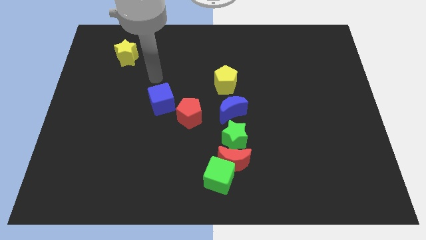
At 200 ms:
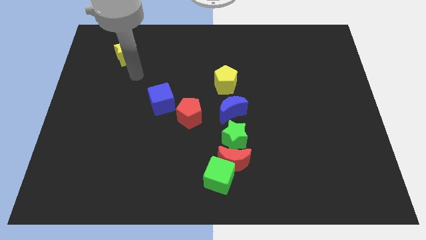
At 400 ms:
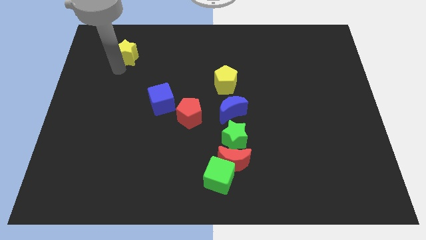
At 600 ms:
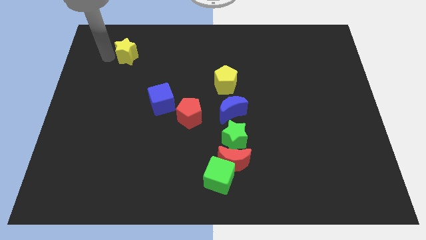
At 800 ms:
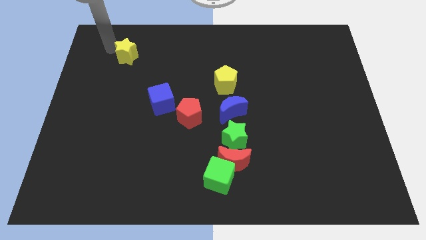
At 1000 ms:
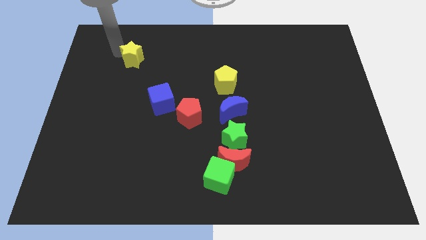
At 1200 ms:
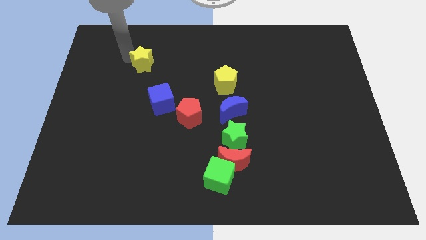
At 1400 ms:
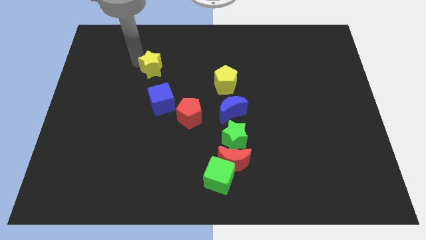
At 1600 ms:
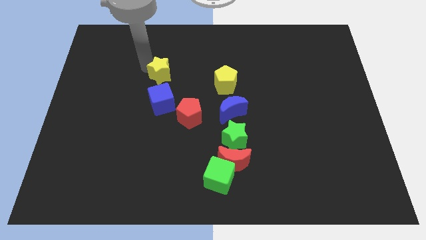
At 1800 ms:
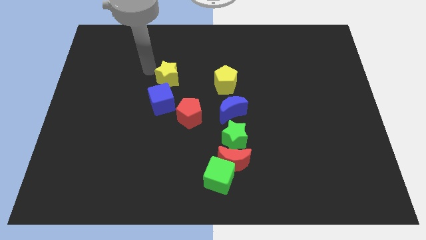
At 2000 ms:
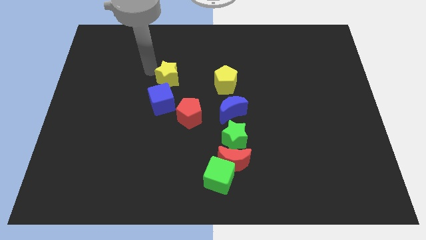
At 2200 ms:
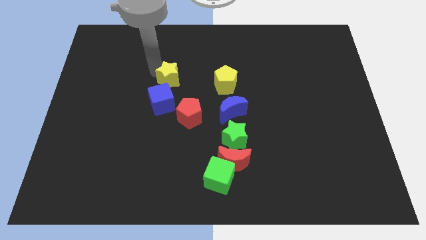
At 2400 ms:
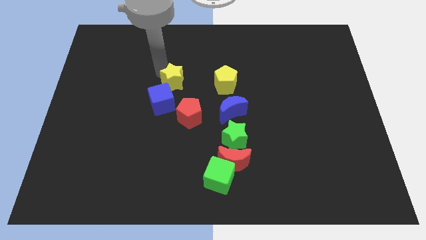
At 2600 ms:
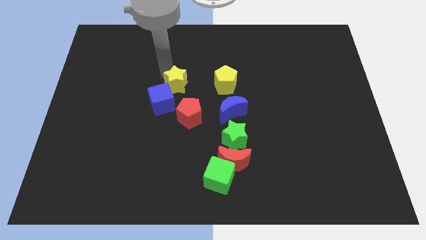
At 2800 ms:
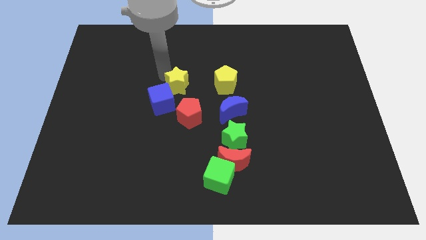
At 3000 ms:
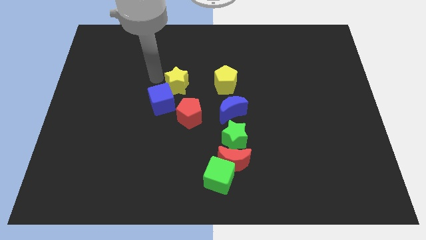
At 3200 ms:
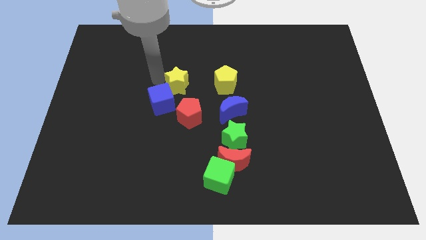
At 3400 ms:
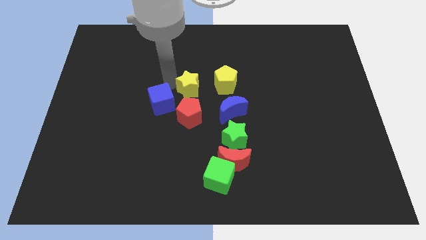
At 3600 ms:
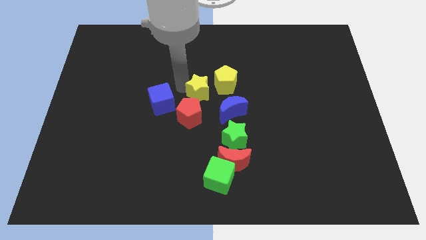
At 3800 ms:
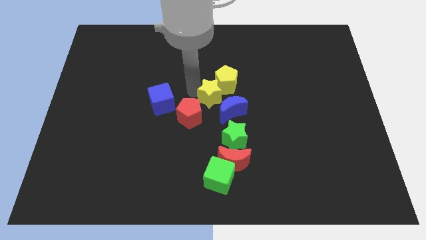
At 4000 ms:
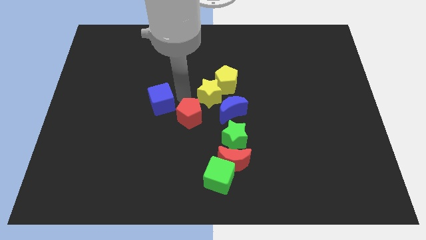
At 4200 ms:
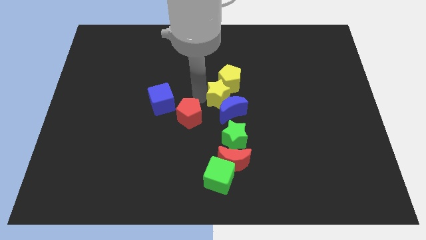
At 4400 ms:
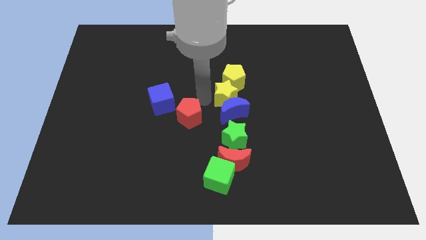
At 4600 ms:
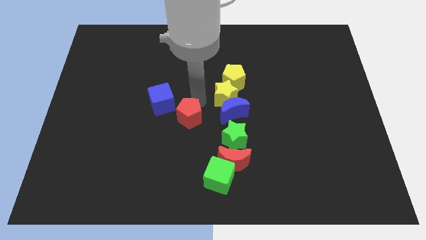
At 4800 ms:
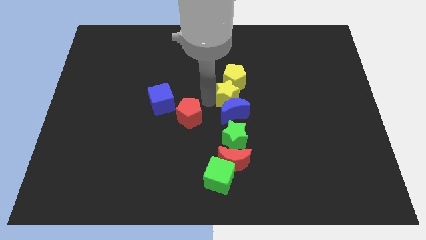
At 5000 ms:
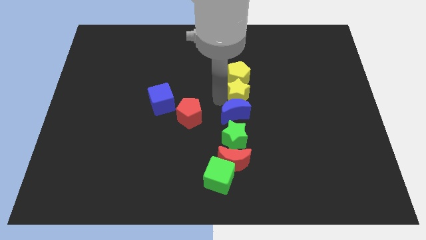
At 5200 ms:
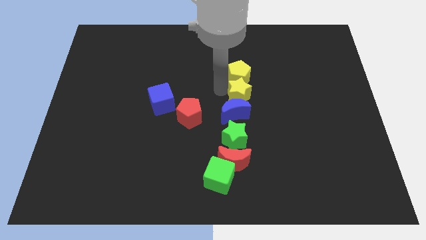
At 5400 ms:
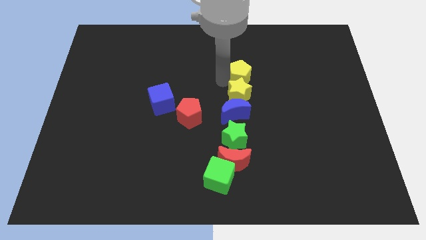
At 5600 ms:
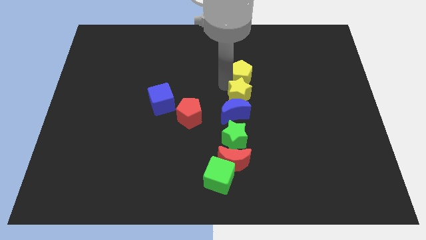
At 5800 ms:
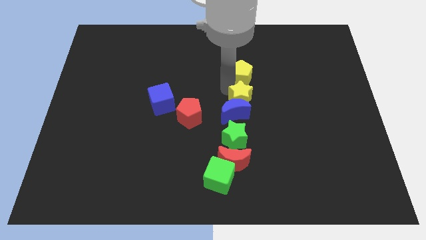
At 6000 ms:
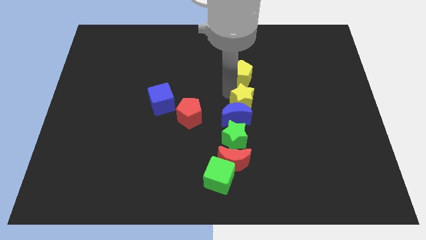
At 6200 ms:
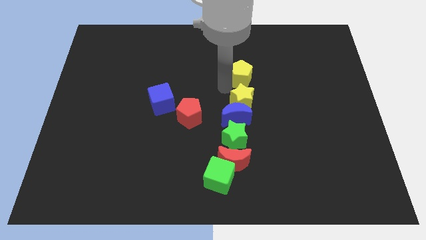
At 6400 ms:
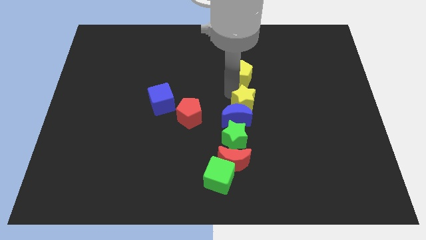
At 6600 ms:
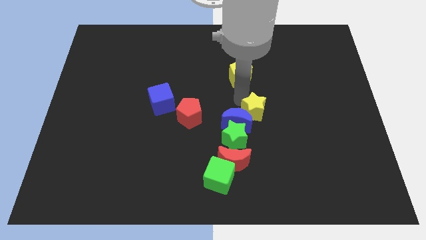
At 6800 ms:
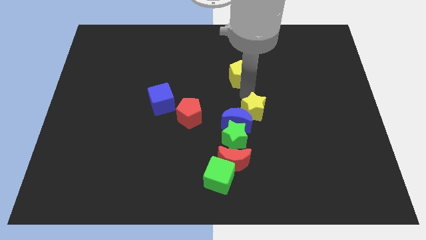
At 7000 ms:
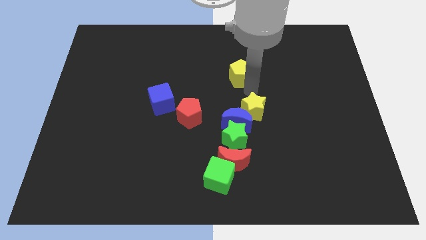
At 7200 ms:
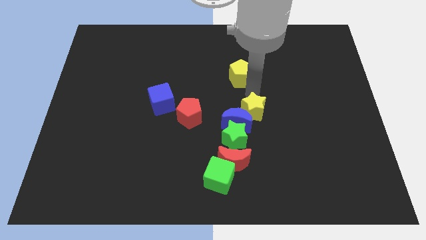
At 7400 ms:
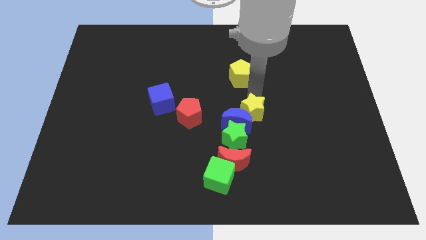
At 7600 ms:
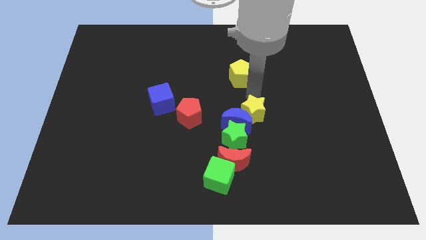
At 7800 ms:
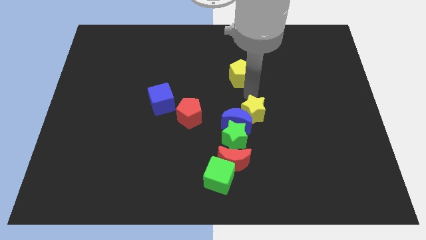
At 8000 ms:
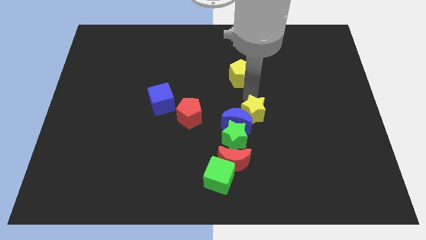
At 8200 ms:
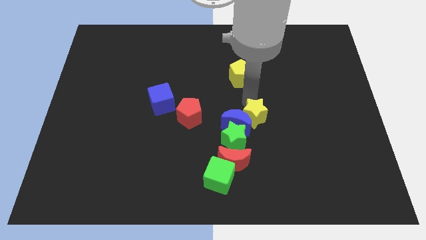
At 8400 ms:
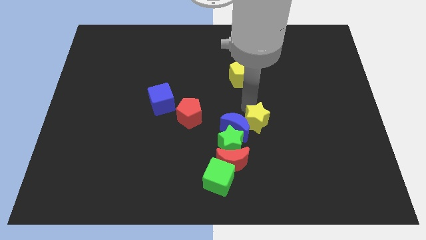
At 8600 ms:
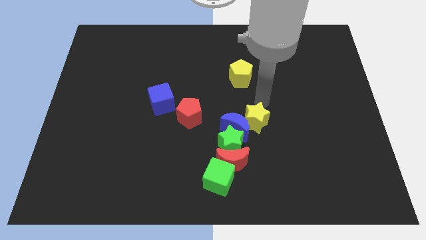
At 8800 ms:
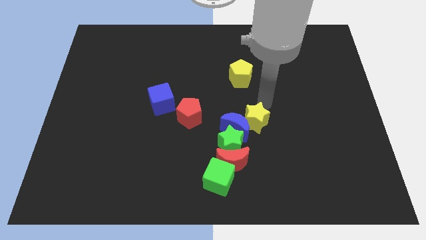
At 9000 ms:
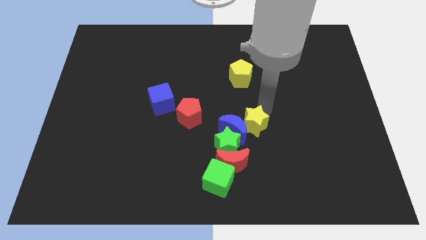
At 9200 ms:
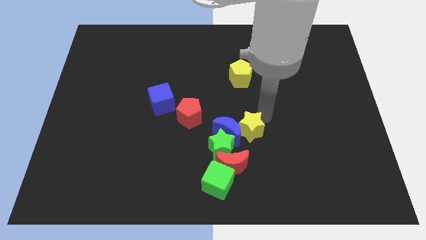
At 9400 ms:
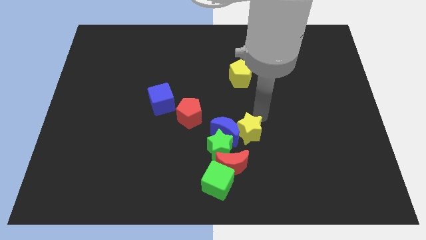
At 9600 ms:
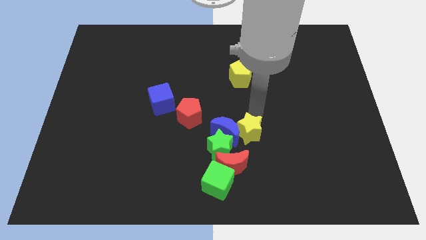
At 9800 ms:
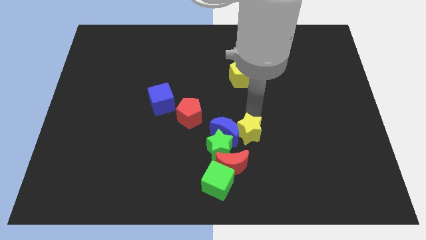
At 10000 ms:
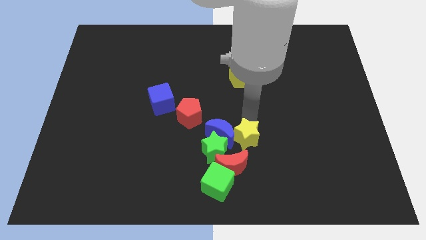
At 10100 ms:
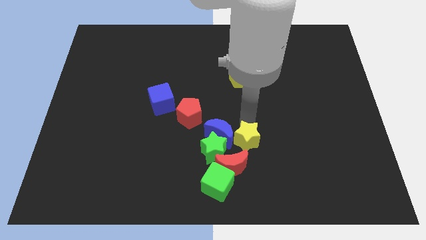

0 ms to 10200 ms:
push the yellow star to the top right side of the green cube

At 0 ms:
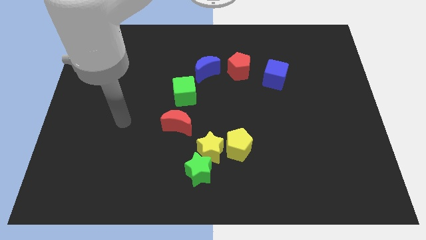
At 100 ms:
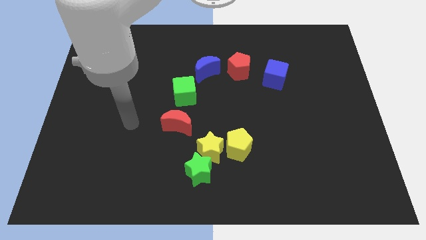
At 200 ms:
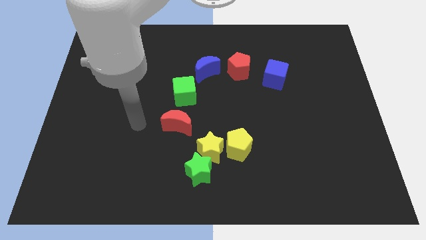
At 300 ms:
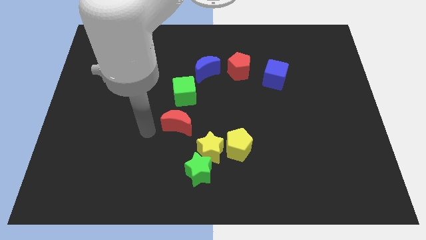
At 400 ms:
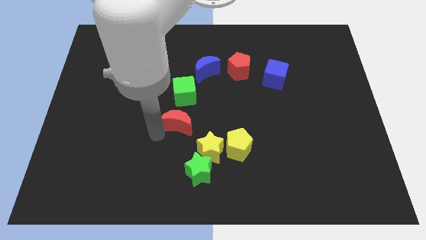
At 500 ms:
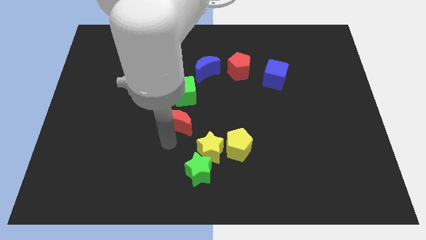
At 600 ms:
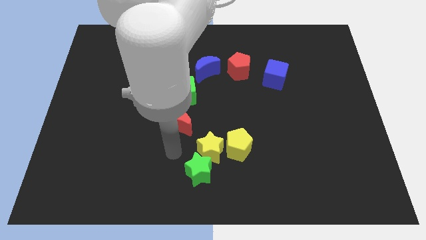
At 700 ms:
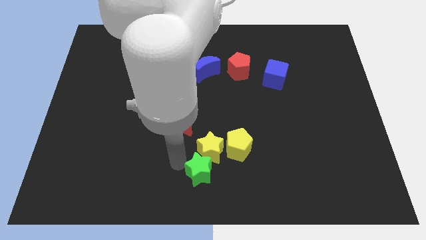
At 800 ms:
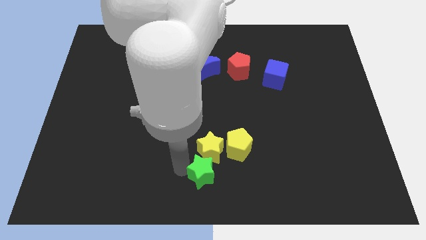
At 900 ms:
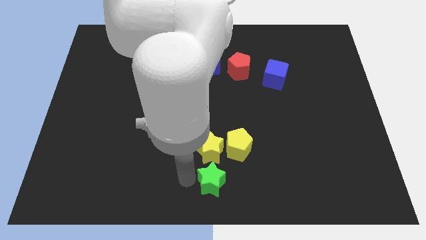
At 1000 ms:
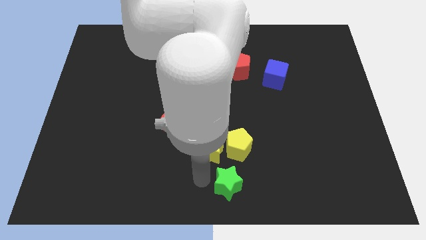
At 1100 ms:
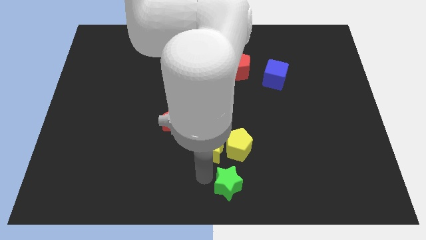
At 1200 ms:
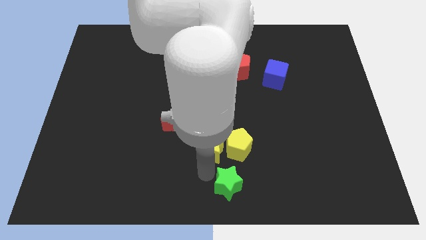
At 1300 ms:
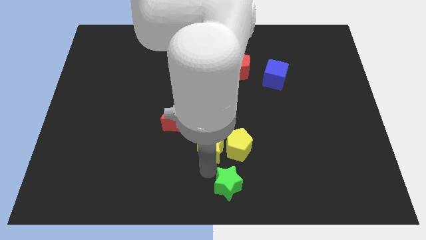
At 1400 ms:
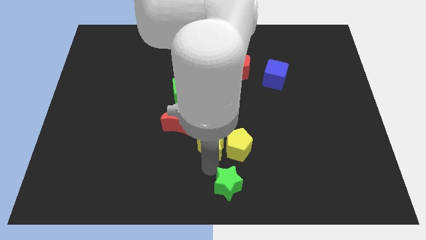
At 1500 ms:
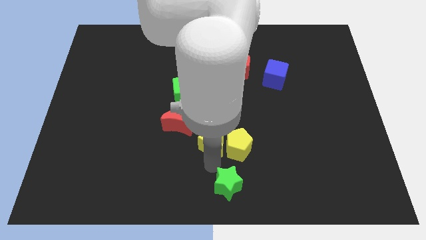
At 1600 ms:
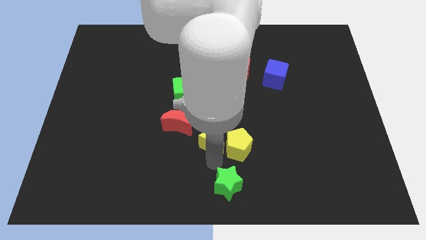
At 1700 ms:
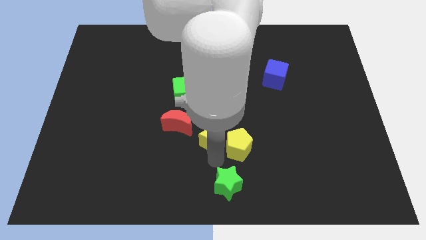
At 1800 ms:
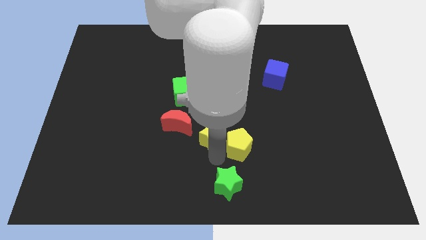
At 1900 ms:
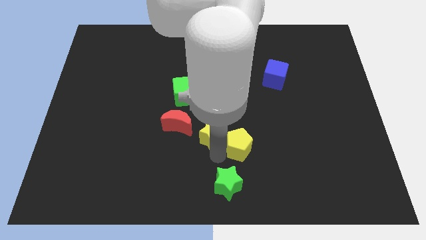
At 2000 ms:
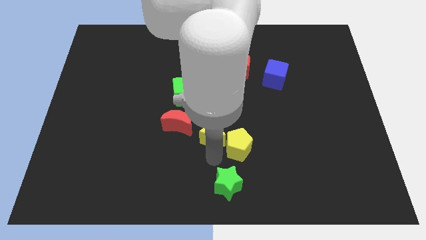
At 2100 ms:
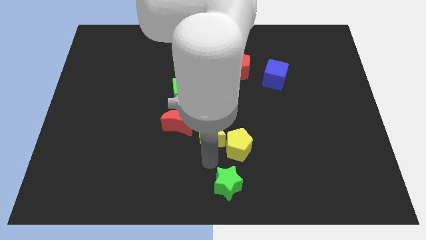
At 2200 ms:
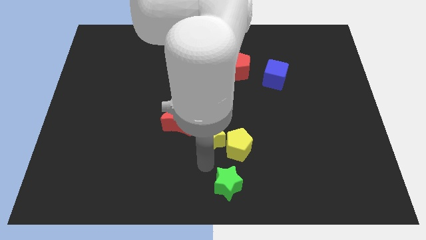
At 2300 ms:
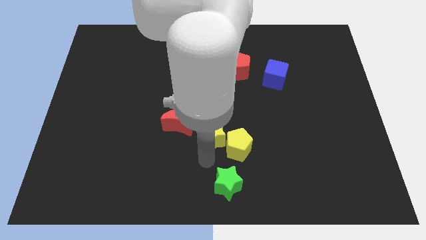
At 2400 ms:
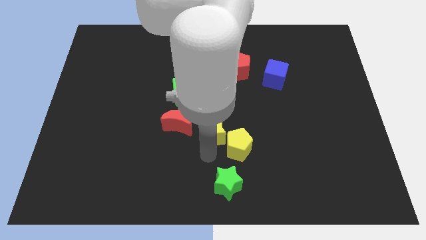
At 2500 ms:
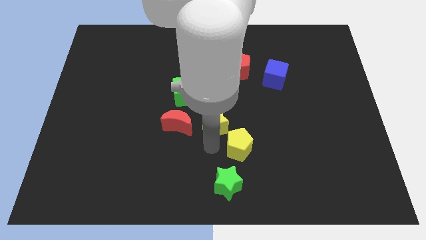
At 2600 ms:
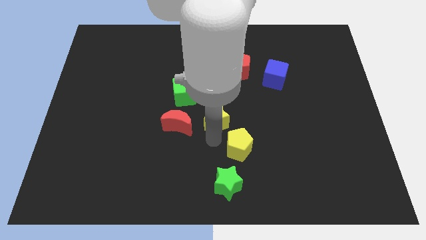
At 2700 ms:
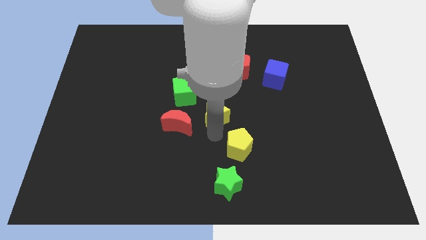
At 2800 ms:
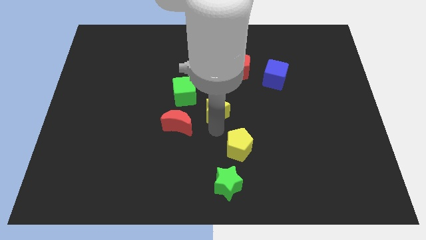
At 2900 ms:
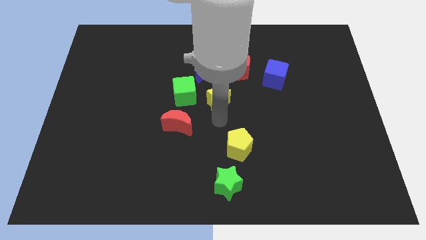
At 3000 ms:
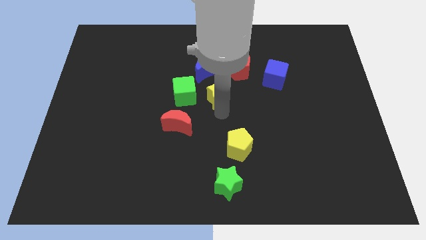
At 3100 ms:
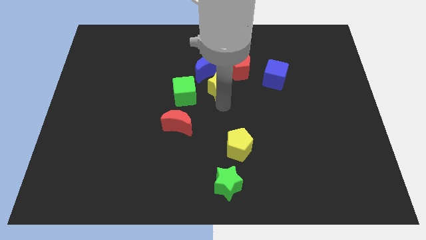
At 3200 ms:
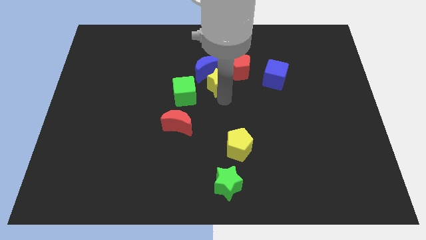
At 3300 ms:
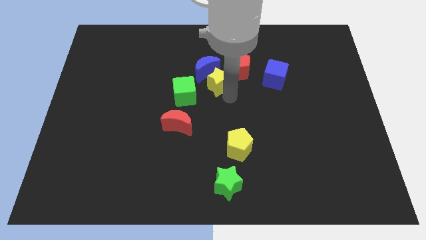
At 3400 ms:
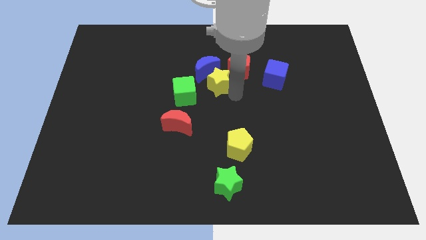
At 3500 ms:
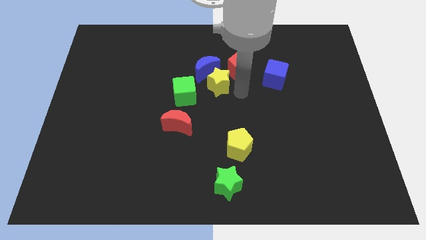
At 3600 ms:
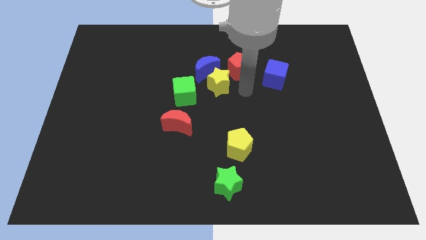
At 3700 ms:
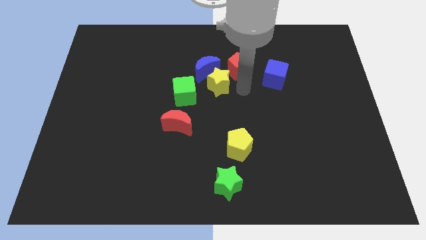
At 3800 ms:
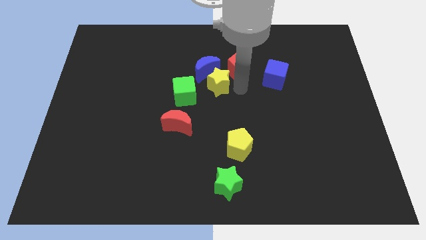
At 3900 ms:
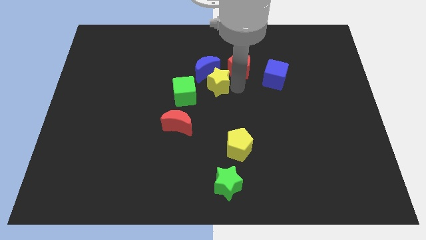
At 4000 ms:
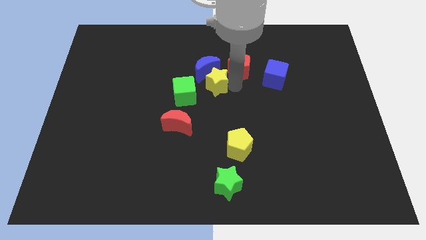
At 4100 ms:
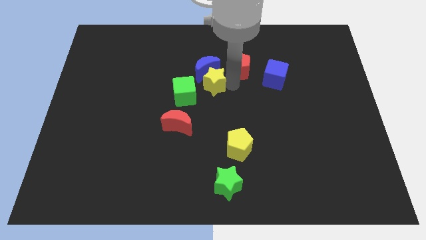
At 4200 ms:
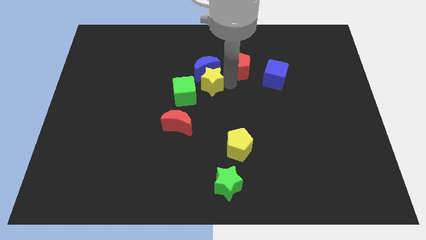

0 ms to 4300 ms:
slide the yellow star to the left side of the red pentagon
